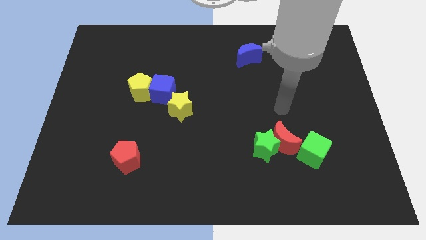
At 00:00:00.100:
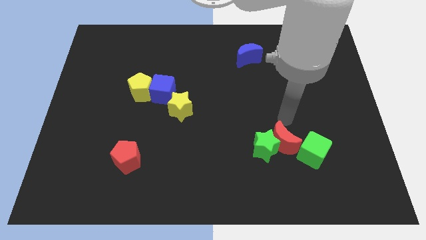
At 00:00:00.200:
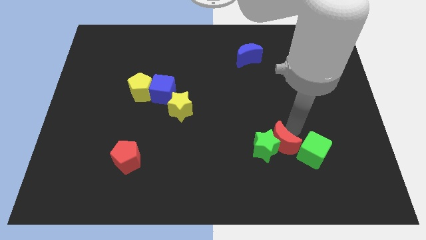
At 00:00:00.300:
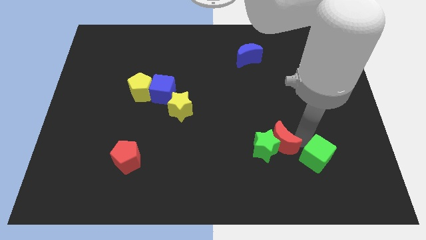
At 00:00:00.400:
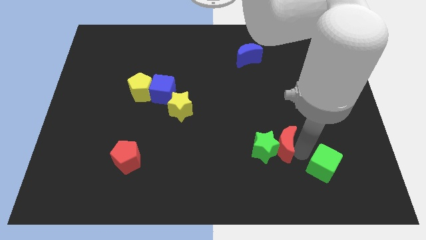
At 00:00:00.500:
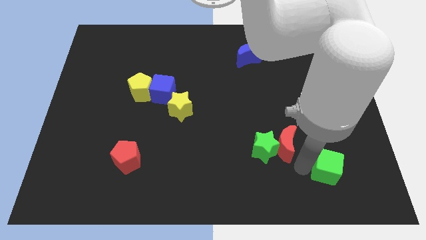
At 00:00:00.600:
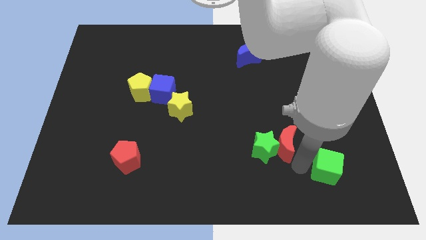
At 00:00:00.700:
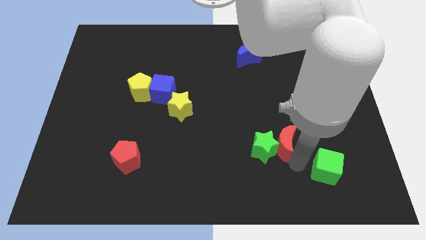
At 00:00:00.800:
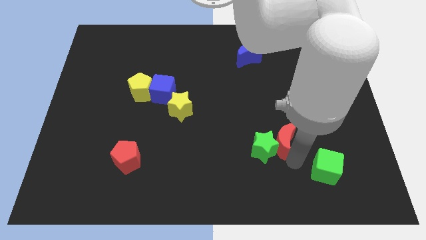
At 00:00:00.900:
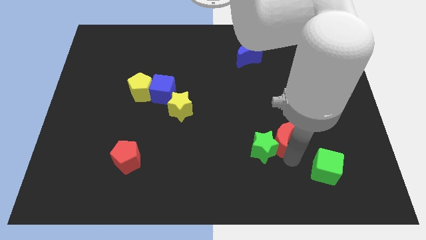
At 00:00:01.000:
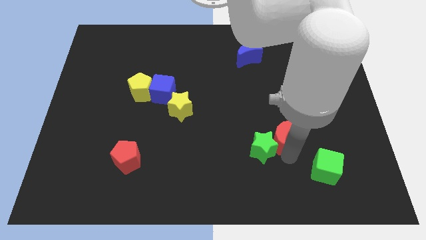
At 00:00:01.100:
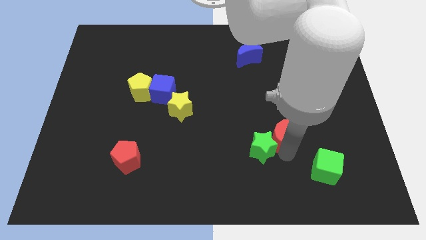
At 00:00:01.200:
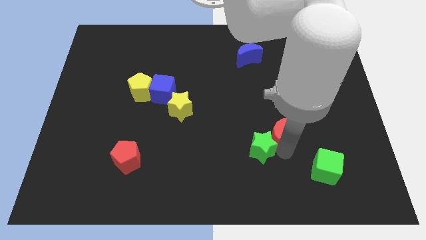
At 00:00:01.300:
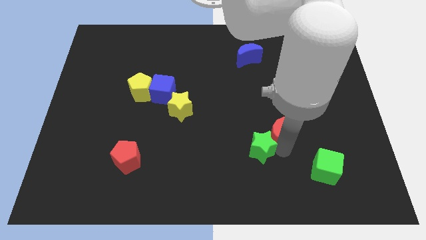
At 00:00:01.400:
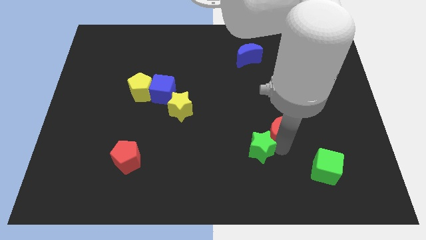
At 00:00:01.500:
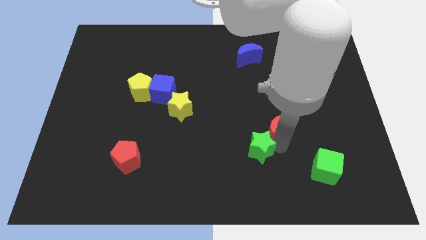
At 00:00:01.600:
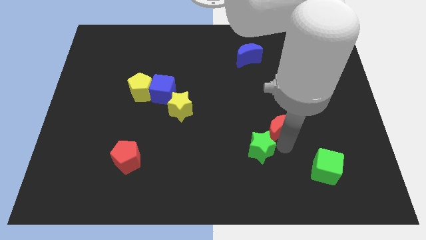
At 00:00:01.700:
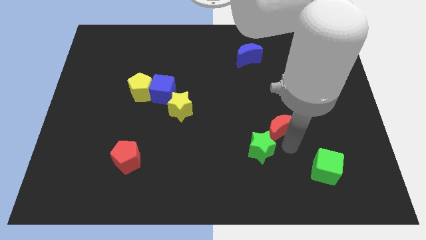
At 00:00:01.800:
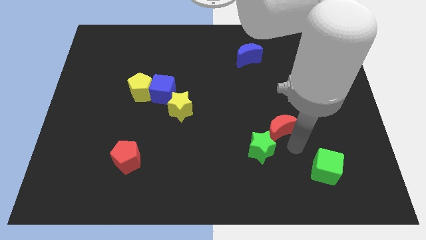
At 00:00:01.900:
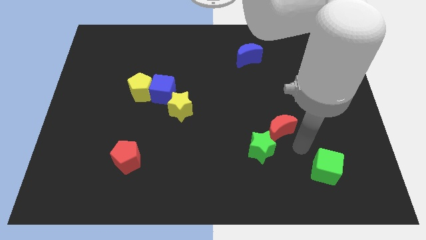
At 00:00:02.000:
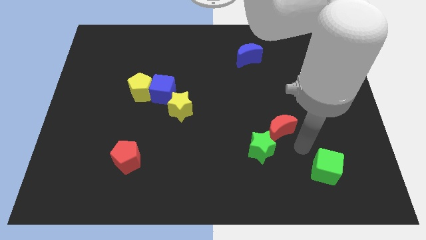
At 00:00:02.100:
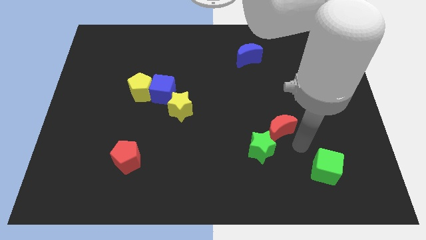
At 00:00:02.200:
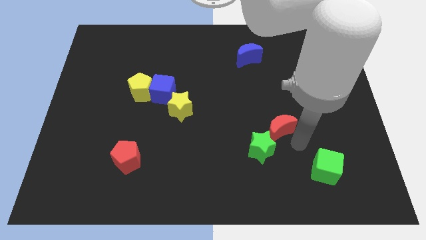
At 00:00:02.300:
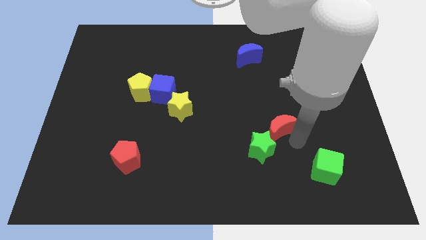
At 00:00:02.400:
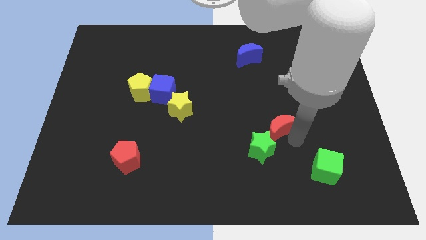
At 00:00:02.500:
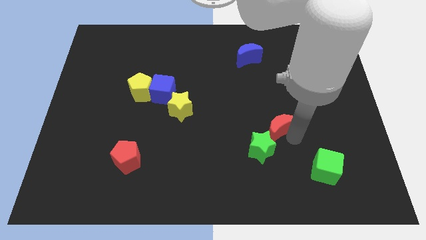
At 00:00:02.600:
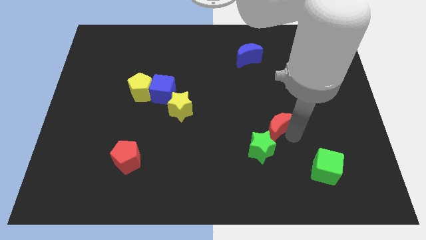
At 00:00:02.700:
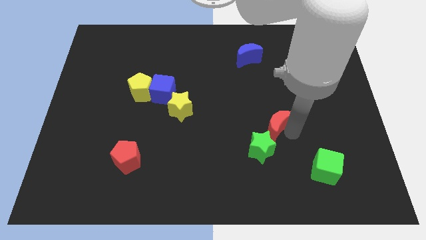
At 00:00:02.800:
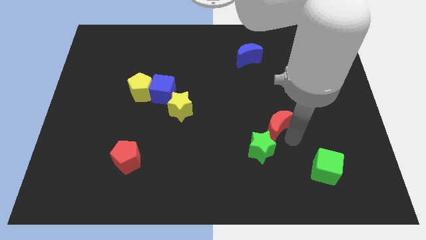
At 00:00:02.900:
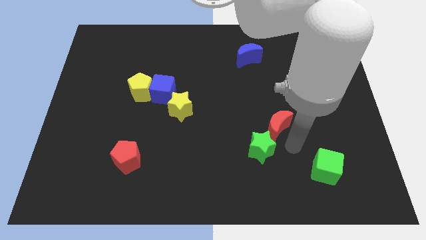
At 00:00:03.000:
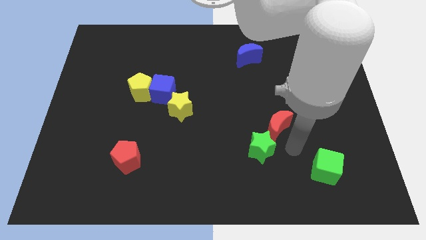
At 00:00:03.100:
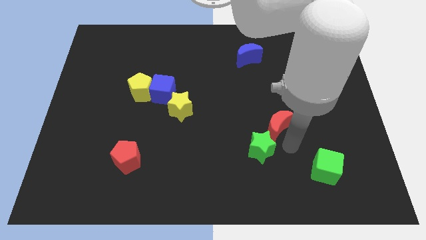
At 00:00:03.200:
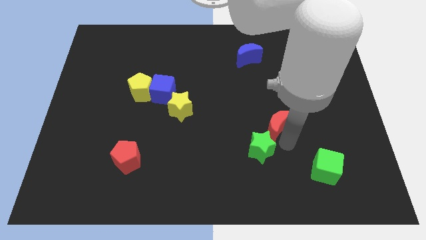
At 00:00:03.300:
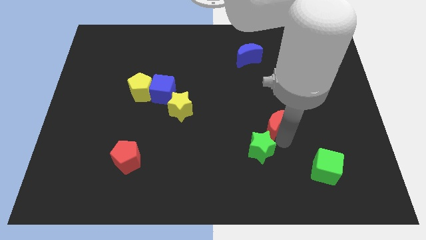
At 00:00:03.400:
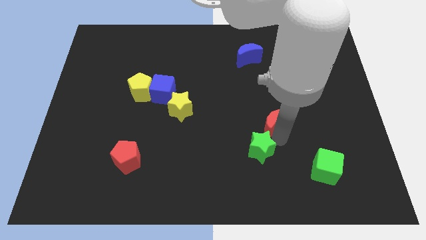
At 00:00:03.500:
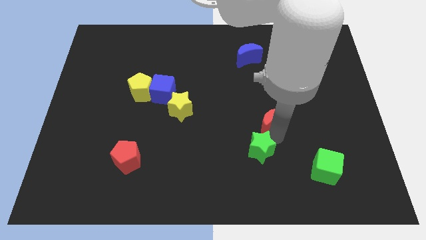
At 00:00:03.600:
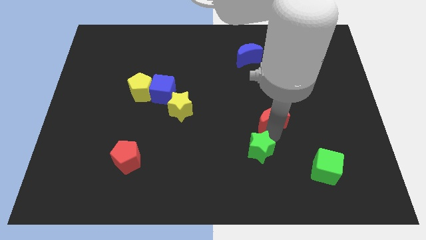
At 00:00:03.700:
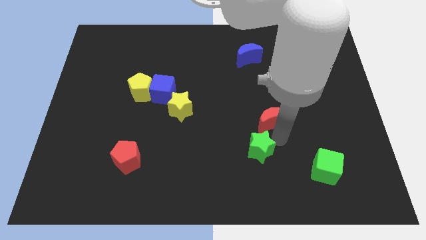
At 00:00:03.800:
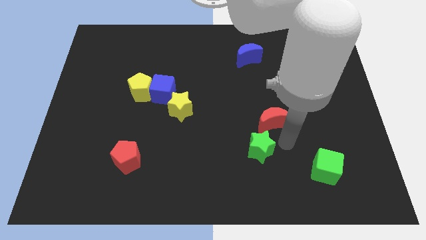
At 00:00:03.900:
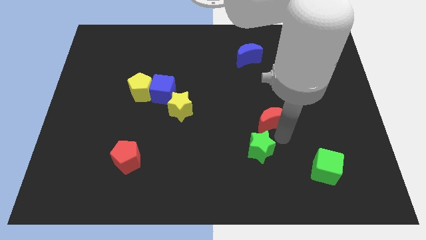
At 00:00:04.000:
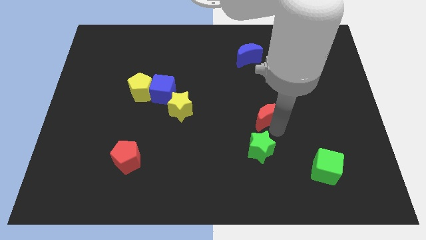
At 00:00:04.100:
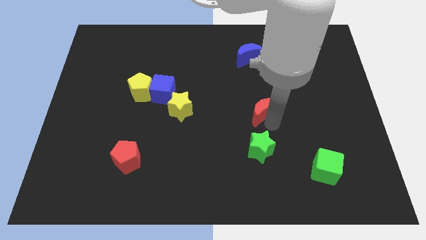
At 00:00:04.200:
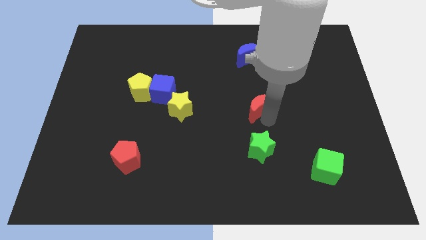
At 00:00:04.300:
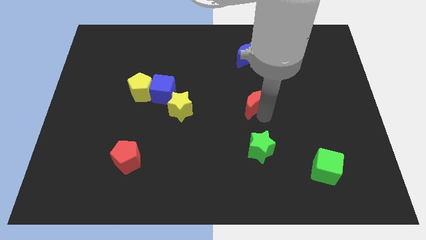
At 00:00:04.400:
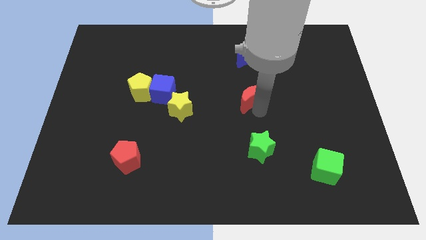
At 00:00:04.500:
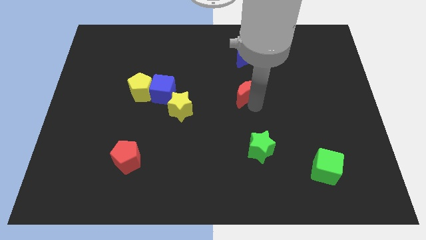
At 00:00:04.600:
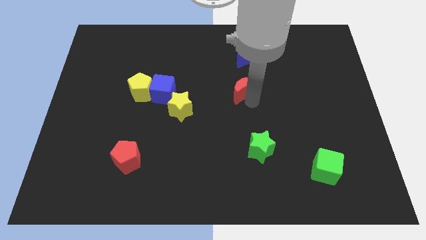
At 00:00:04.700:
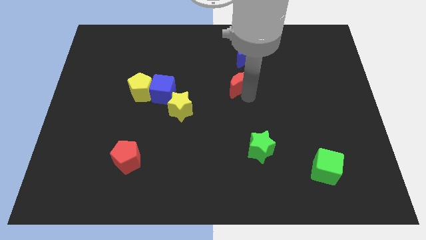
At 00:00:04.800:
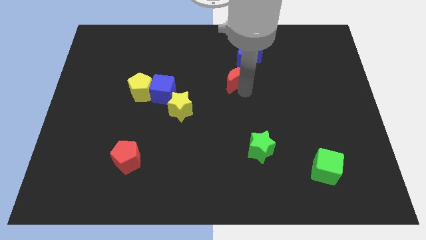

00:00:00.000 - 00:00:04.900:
put the red moon diagonally down and to the left of the blue moon

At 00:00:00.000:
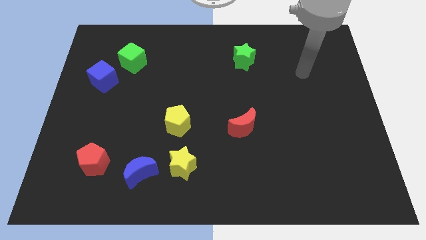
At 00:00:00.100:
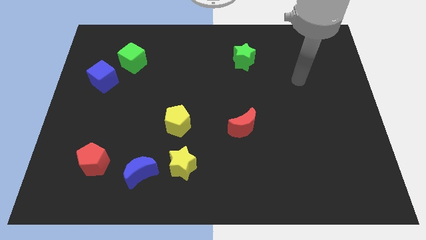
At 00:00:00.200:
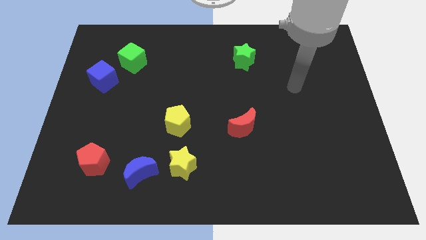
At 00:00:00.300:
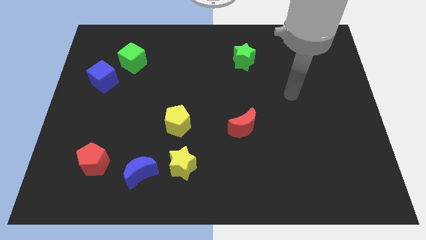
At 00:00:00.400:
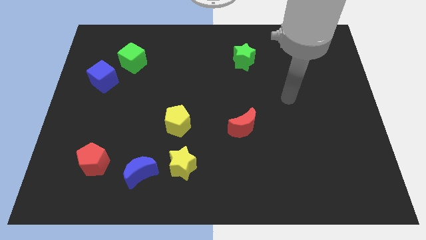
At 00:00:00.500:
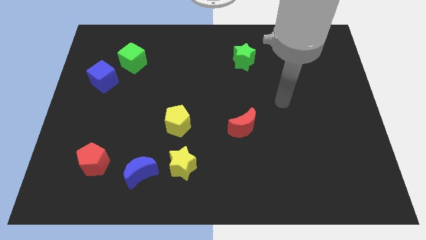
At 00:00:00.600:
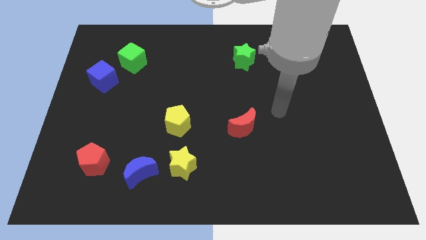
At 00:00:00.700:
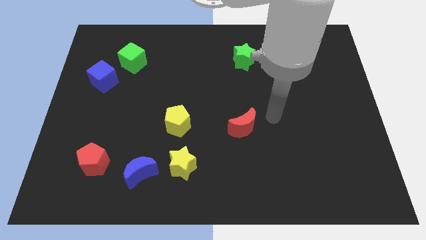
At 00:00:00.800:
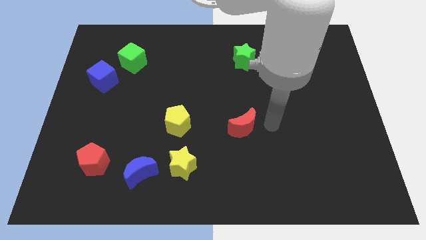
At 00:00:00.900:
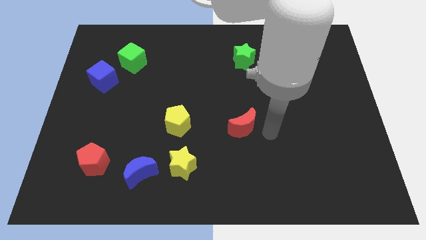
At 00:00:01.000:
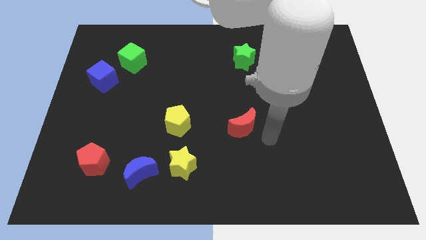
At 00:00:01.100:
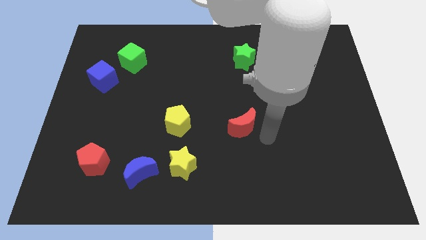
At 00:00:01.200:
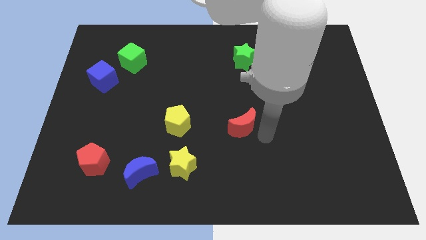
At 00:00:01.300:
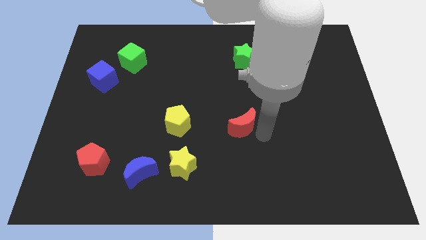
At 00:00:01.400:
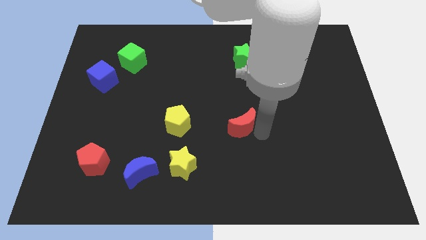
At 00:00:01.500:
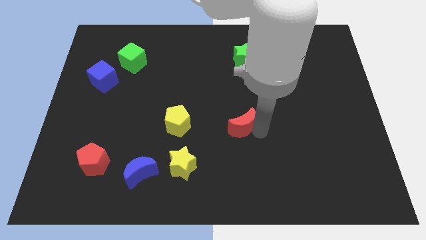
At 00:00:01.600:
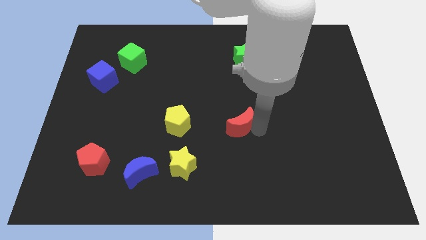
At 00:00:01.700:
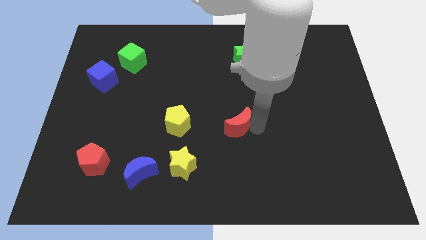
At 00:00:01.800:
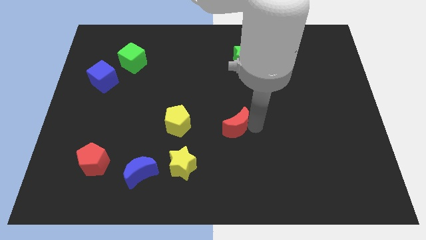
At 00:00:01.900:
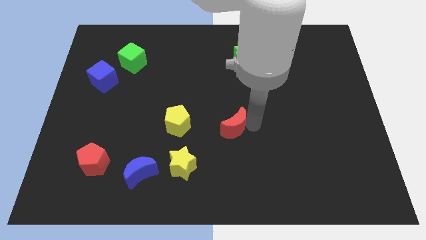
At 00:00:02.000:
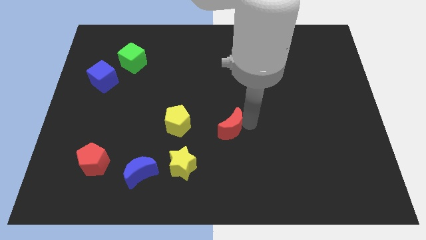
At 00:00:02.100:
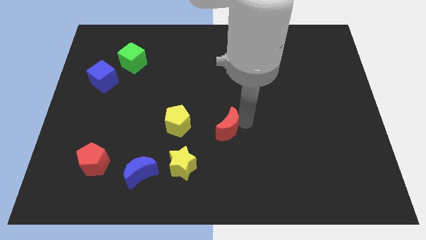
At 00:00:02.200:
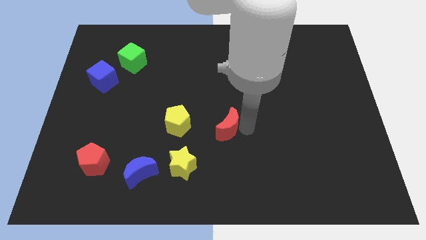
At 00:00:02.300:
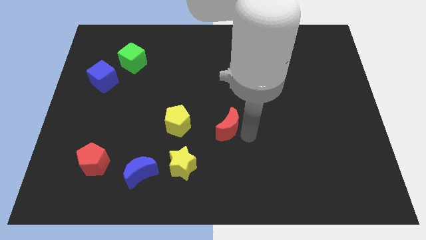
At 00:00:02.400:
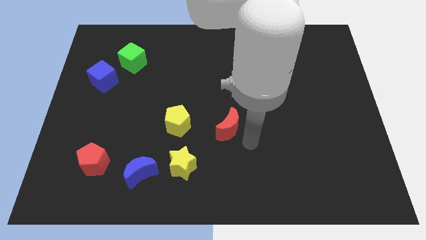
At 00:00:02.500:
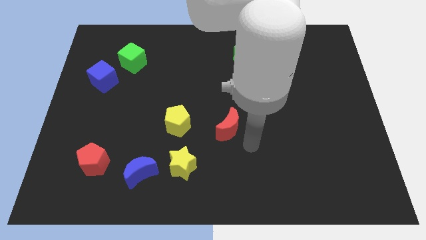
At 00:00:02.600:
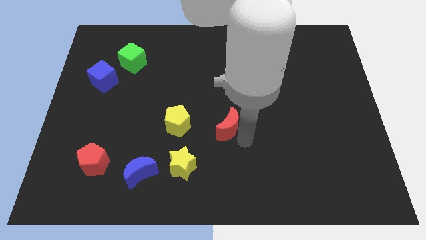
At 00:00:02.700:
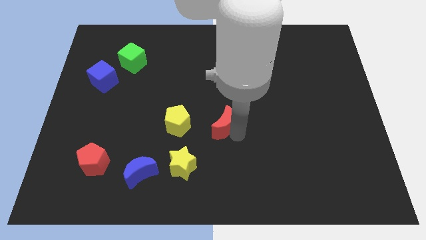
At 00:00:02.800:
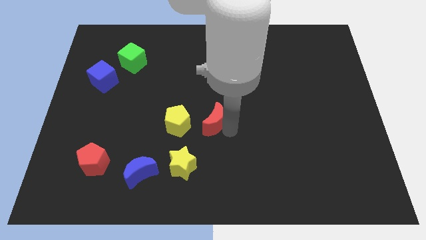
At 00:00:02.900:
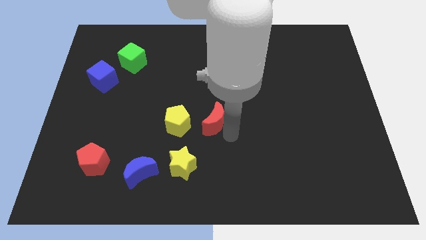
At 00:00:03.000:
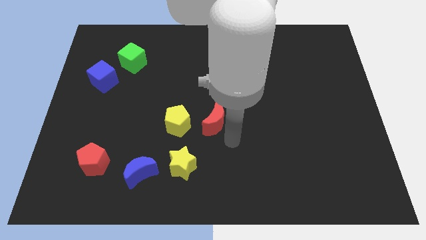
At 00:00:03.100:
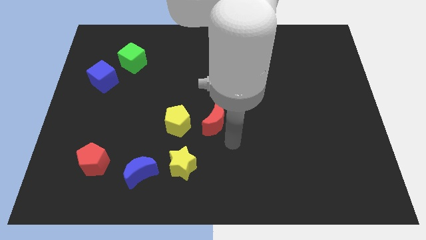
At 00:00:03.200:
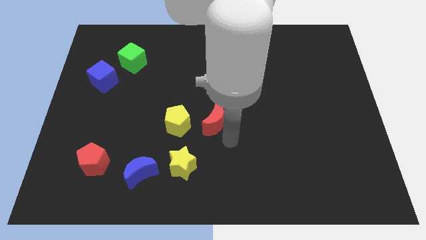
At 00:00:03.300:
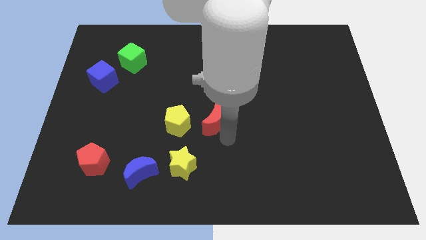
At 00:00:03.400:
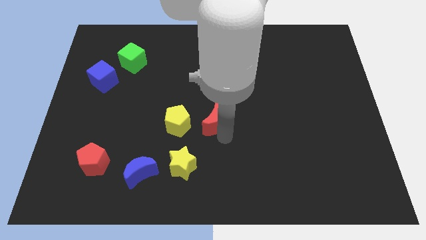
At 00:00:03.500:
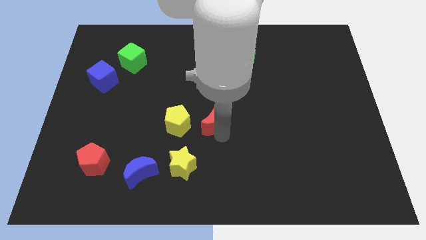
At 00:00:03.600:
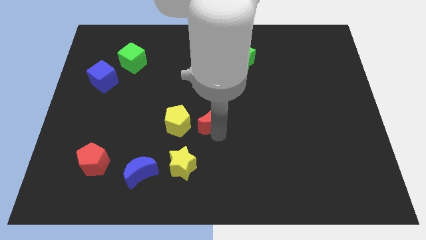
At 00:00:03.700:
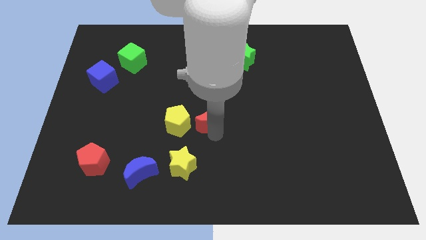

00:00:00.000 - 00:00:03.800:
slide the red moon to the top right of the yellow pentagon
